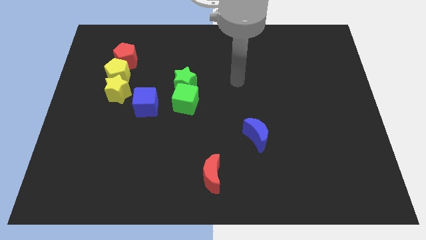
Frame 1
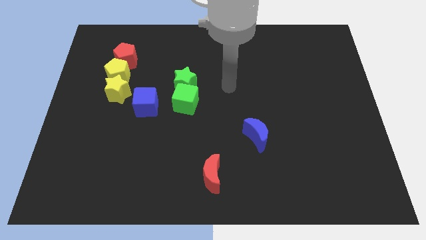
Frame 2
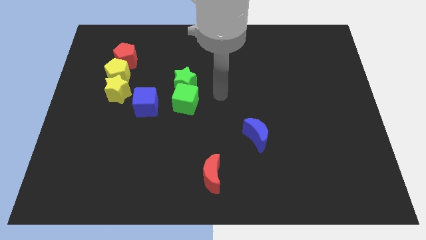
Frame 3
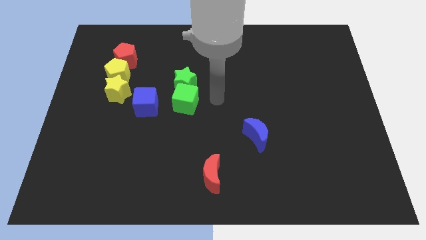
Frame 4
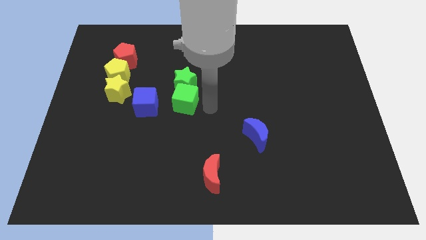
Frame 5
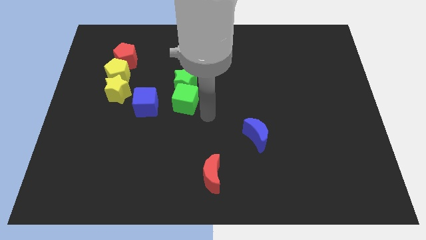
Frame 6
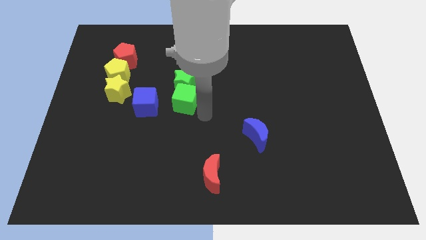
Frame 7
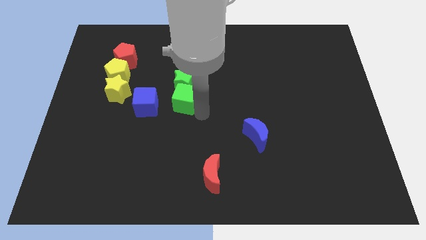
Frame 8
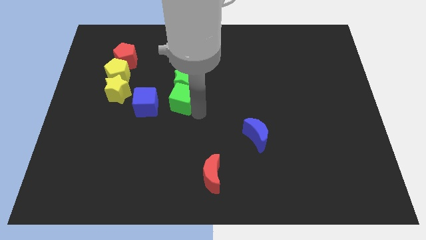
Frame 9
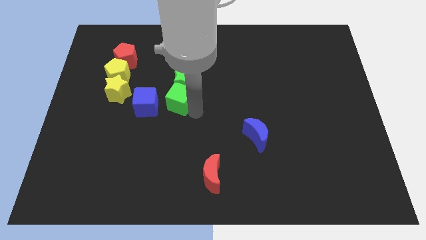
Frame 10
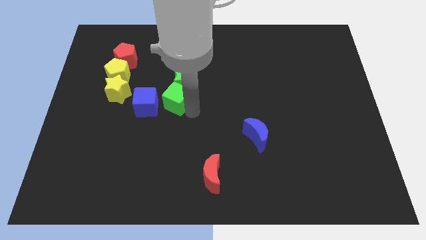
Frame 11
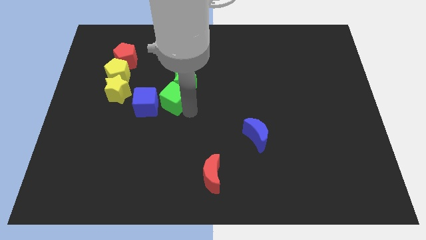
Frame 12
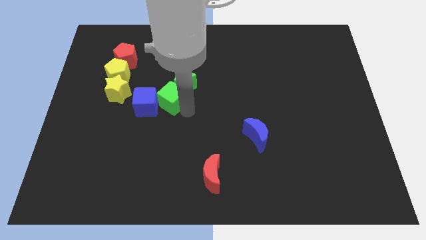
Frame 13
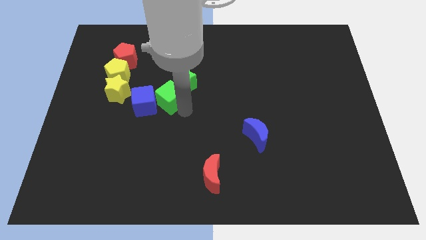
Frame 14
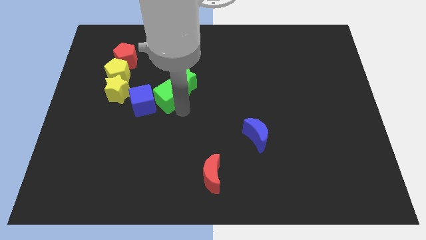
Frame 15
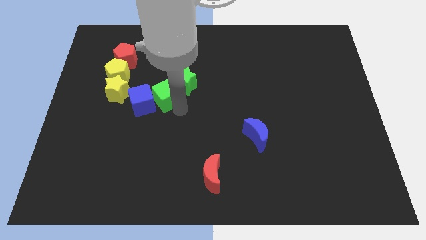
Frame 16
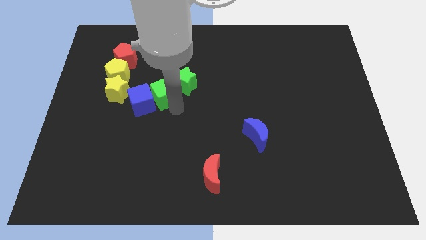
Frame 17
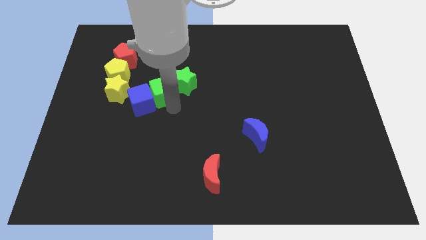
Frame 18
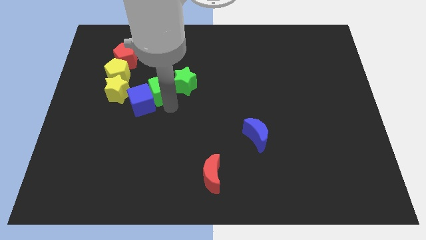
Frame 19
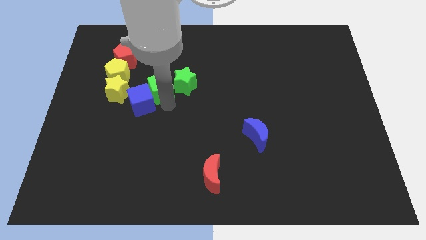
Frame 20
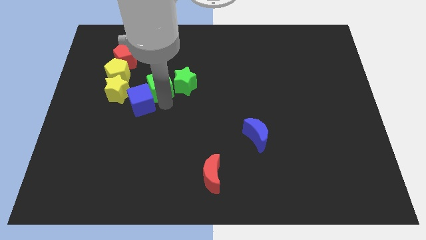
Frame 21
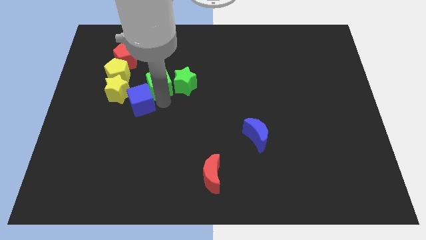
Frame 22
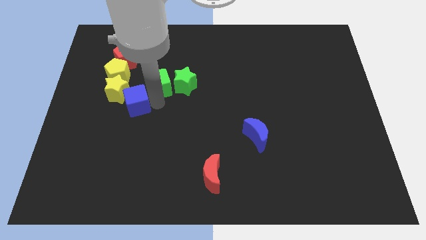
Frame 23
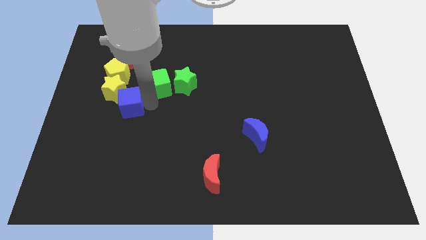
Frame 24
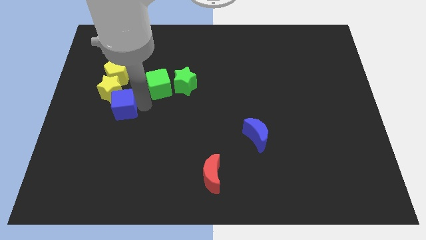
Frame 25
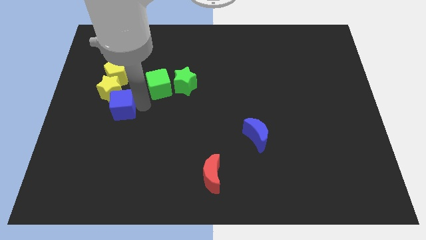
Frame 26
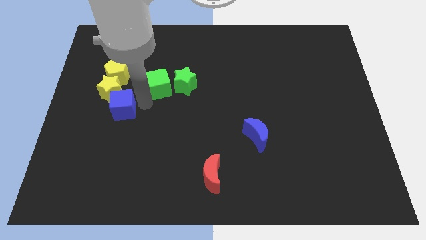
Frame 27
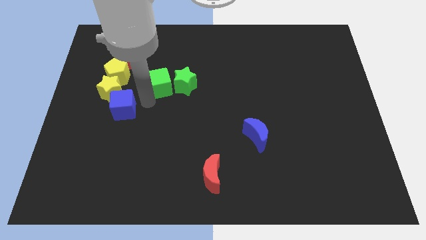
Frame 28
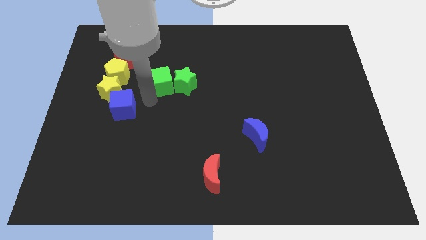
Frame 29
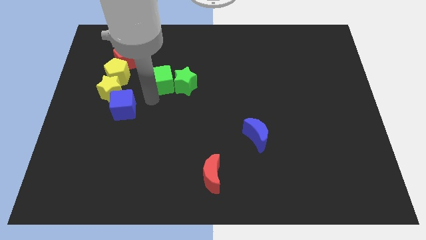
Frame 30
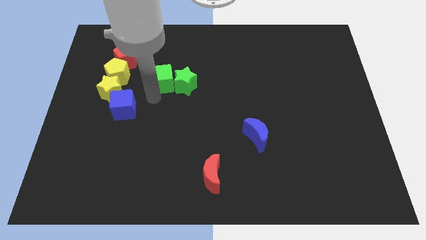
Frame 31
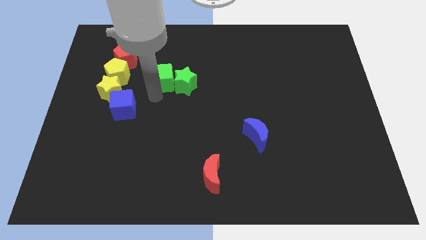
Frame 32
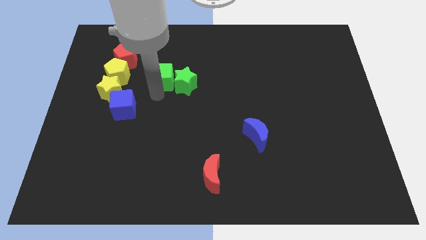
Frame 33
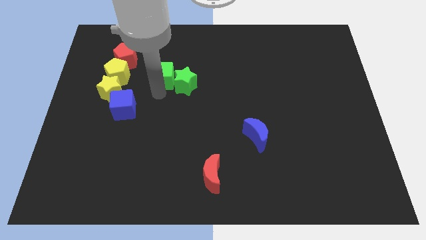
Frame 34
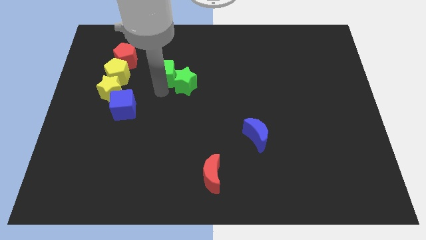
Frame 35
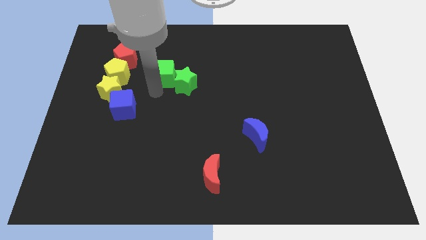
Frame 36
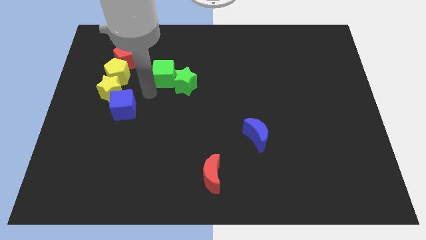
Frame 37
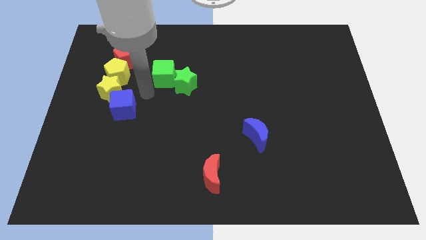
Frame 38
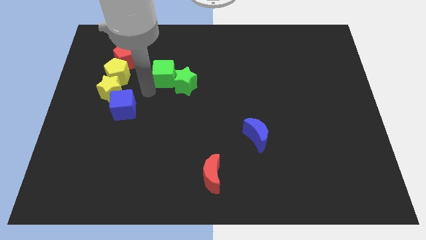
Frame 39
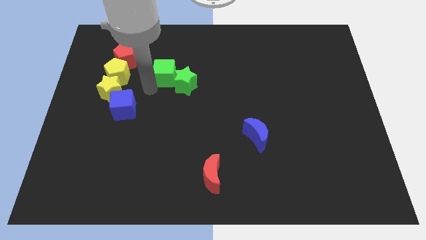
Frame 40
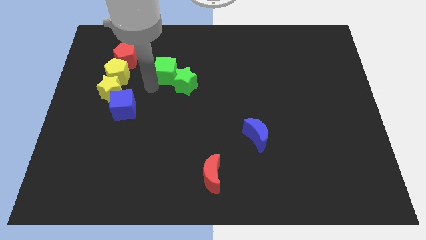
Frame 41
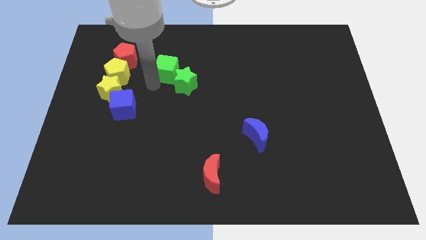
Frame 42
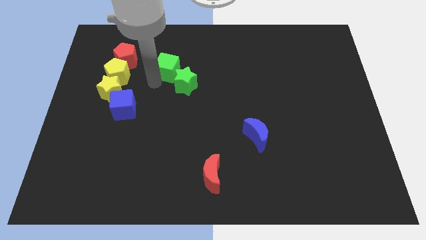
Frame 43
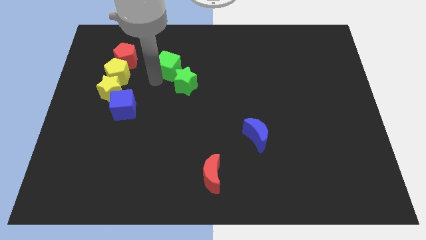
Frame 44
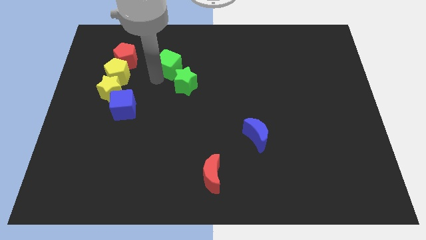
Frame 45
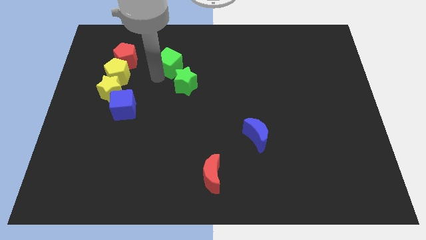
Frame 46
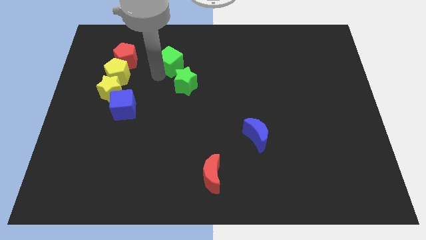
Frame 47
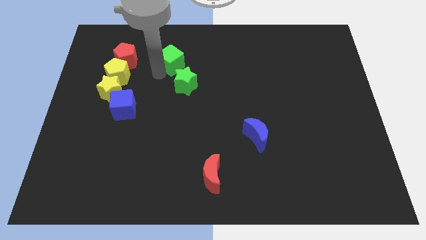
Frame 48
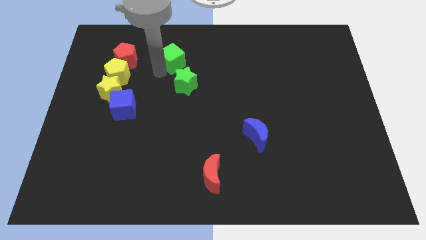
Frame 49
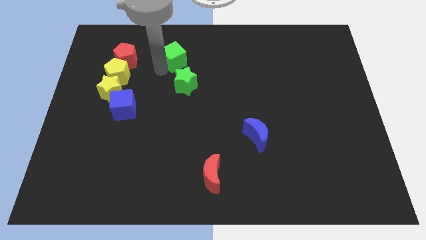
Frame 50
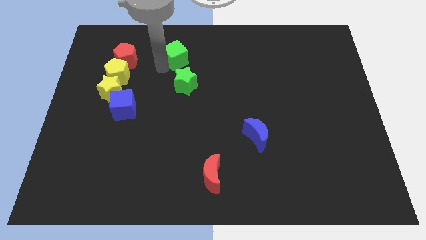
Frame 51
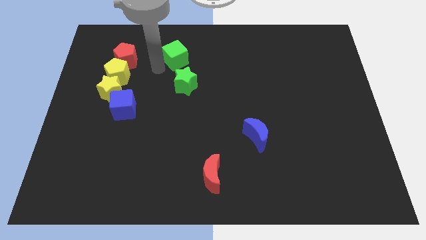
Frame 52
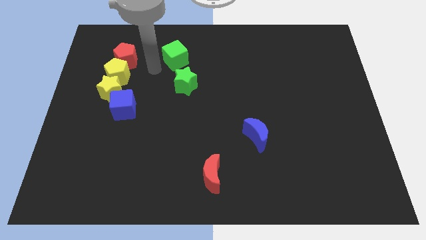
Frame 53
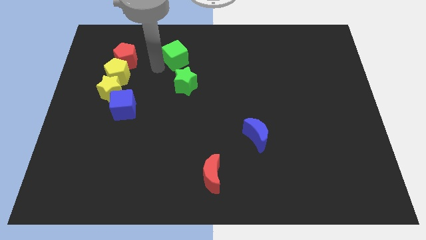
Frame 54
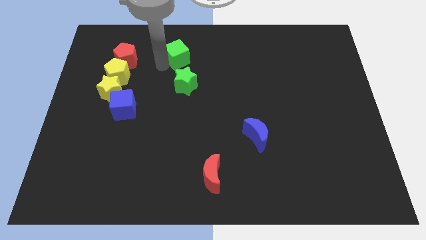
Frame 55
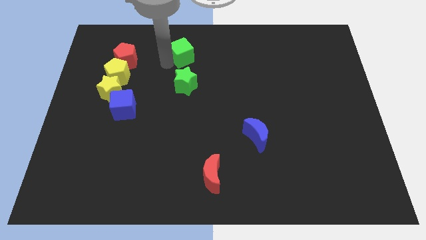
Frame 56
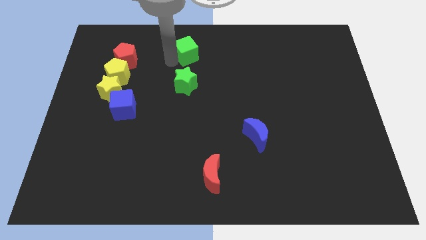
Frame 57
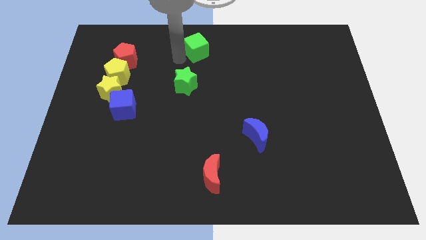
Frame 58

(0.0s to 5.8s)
put the green cube to the top side
